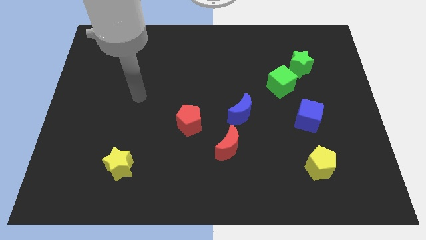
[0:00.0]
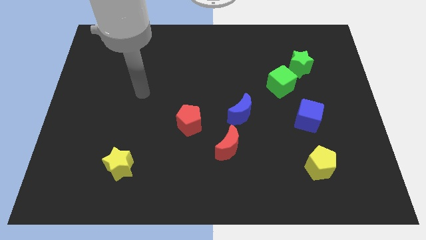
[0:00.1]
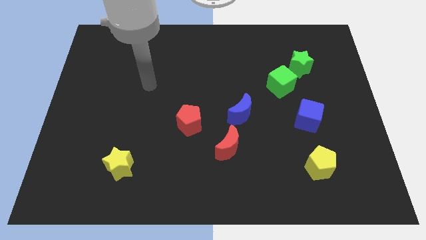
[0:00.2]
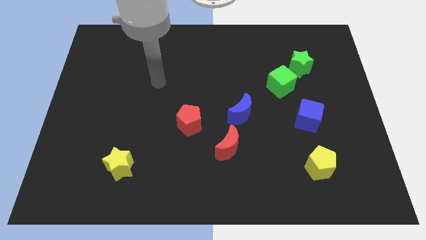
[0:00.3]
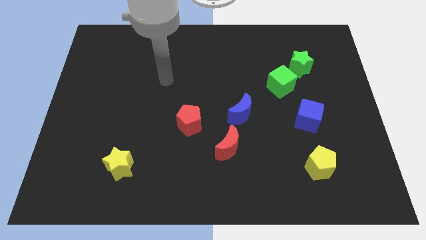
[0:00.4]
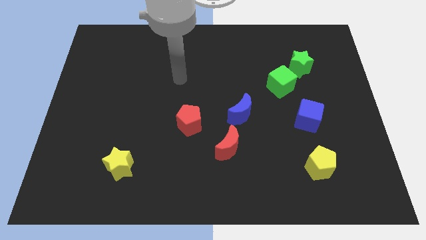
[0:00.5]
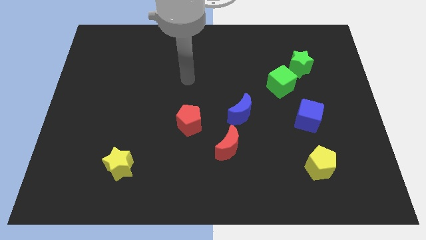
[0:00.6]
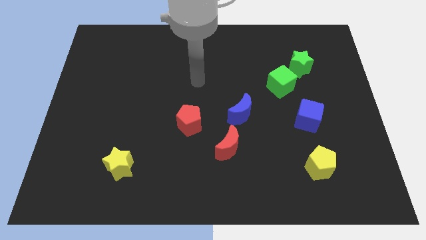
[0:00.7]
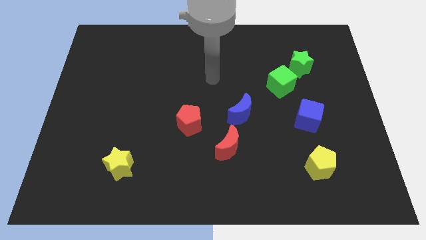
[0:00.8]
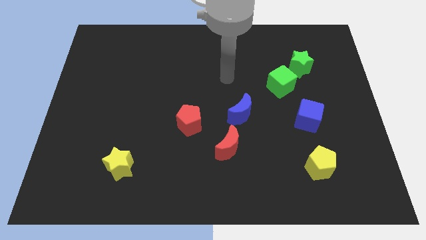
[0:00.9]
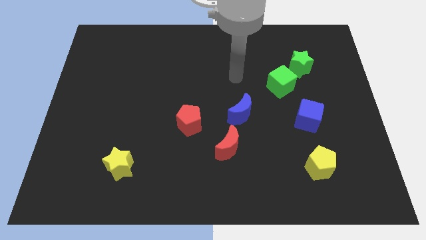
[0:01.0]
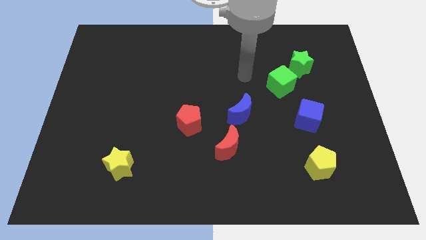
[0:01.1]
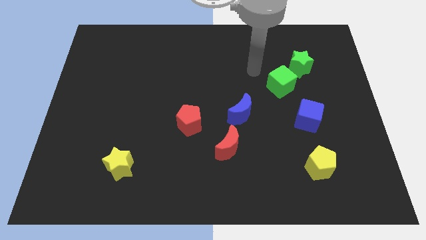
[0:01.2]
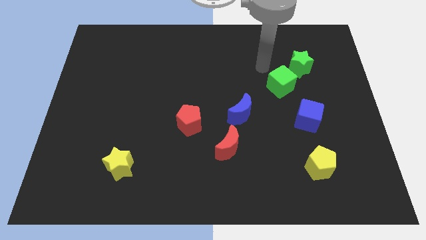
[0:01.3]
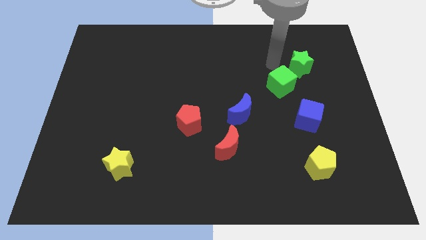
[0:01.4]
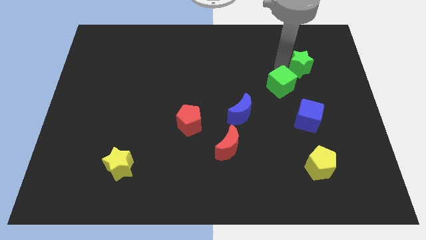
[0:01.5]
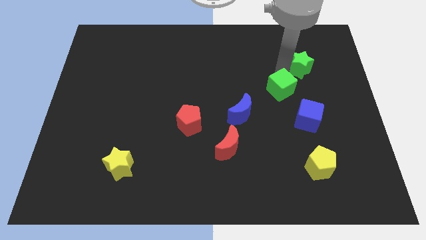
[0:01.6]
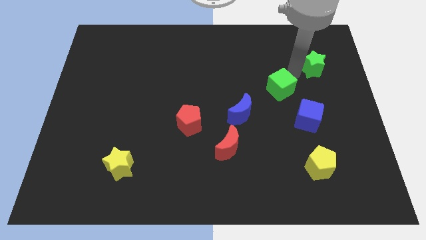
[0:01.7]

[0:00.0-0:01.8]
move the green cube away from the green star

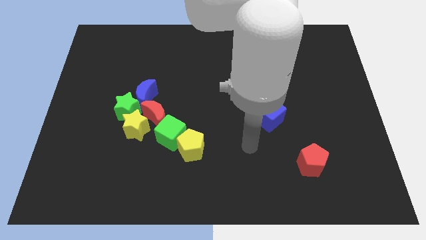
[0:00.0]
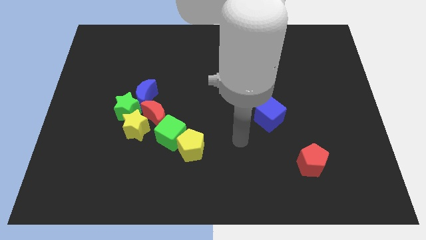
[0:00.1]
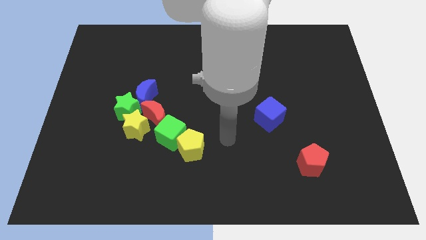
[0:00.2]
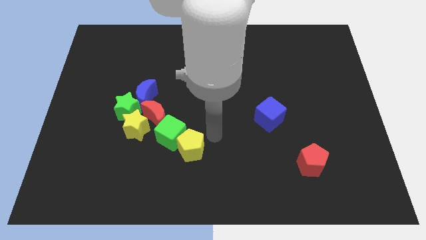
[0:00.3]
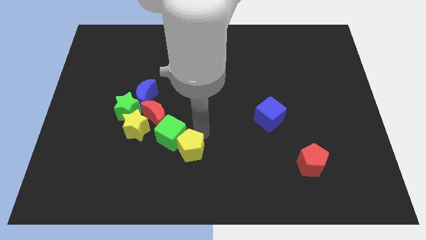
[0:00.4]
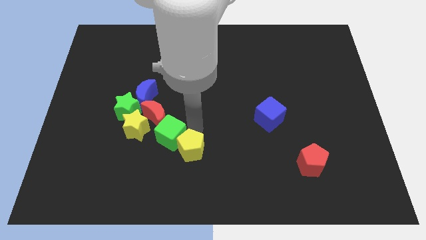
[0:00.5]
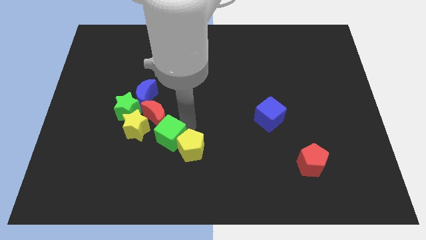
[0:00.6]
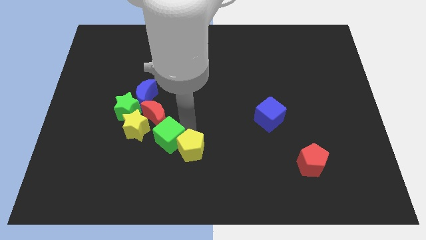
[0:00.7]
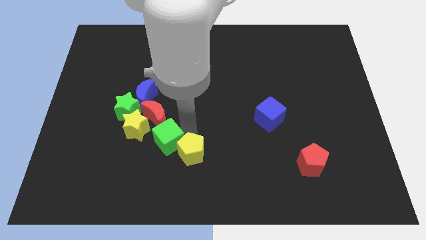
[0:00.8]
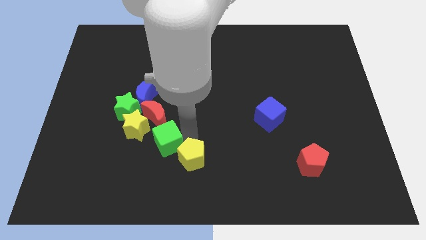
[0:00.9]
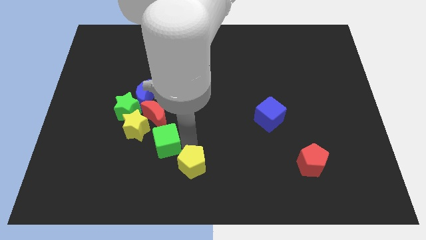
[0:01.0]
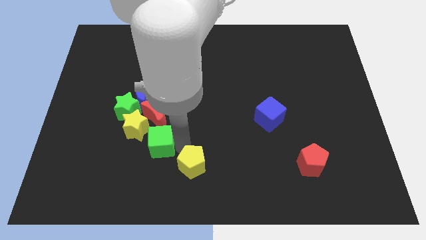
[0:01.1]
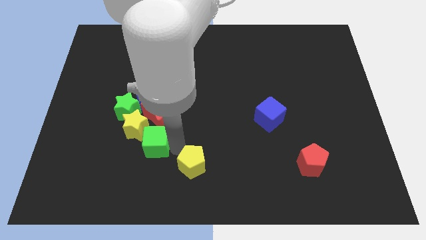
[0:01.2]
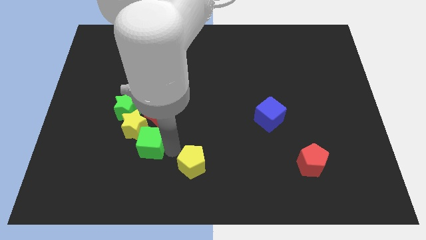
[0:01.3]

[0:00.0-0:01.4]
pull the yellow pentagon apart from the green cube

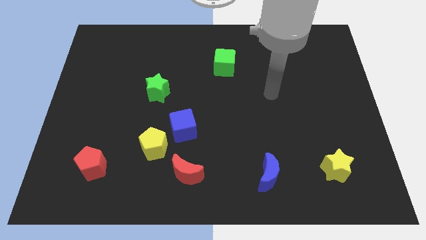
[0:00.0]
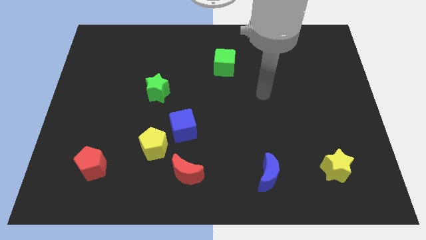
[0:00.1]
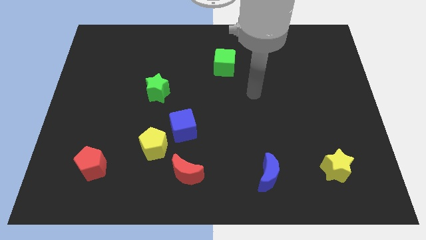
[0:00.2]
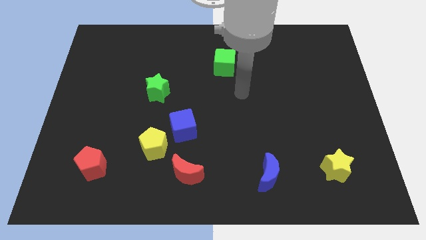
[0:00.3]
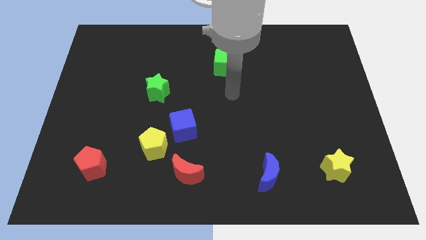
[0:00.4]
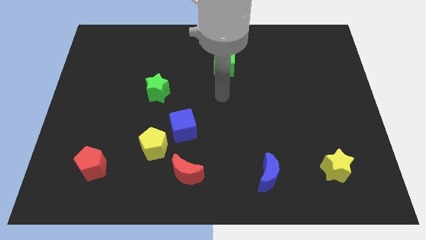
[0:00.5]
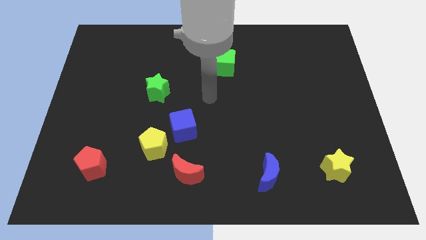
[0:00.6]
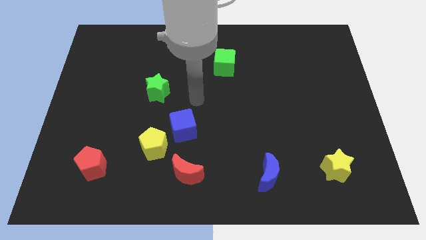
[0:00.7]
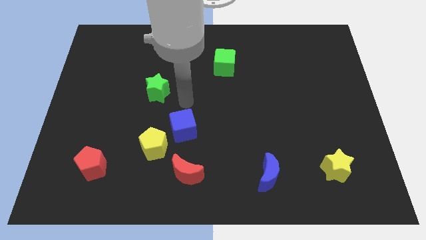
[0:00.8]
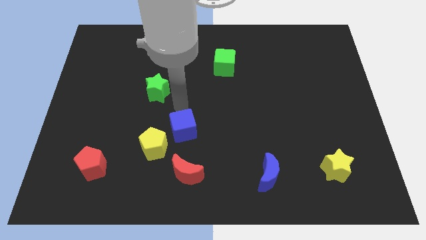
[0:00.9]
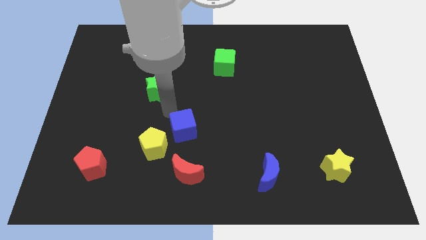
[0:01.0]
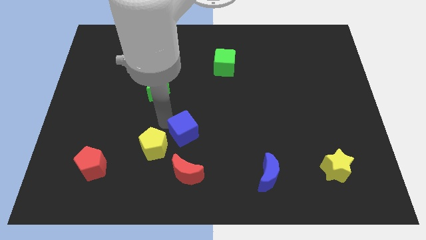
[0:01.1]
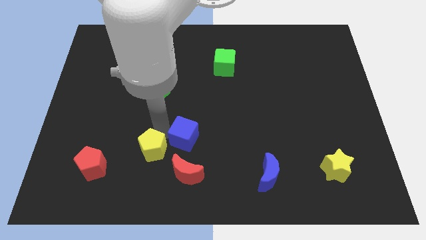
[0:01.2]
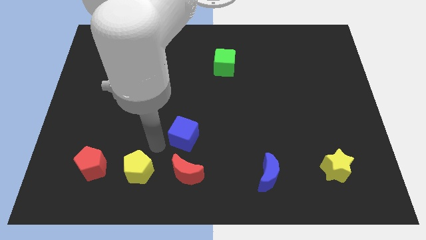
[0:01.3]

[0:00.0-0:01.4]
pull the blue cube apart from the yellow pentagon

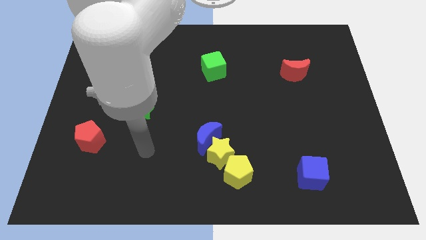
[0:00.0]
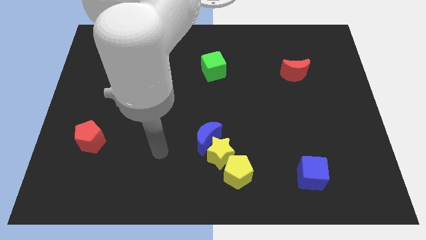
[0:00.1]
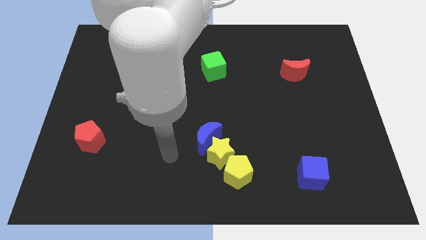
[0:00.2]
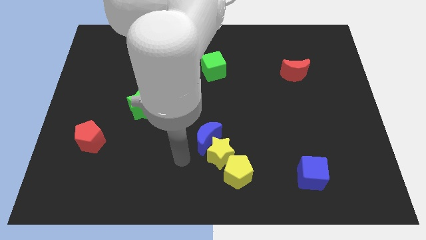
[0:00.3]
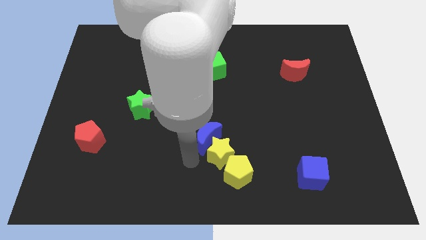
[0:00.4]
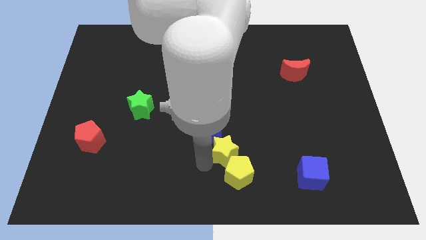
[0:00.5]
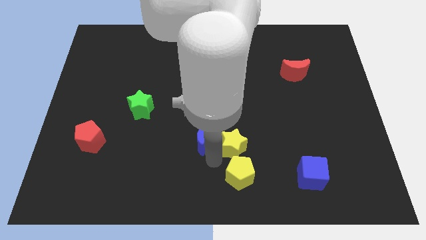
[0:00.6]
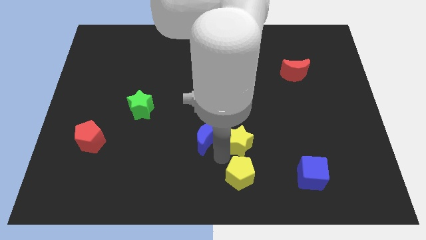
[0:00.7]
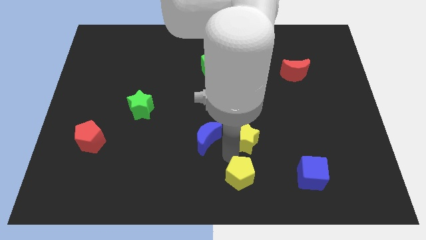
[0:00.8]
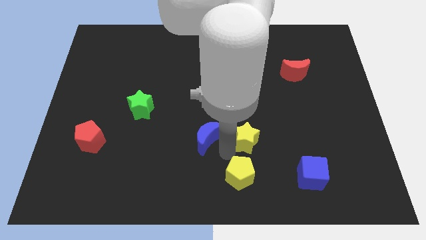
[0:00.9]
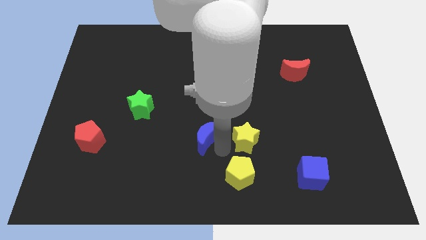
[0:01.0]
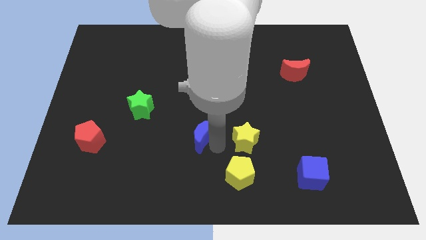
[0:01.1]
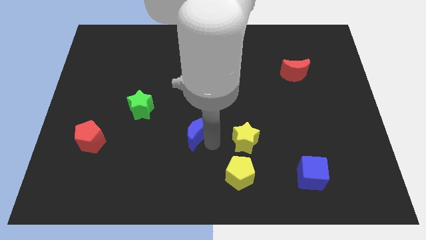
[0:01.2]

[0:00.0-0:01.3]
move the blue moon away from the yellow star

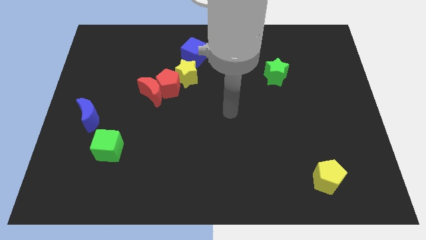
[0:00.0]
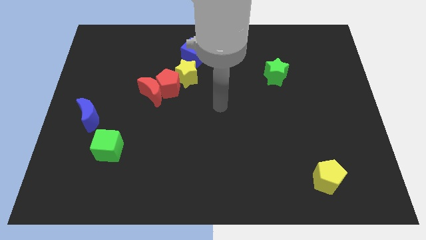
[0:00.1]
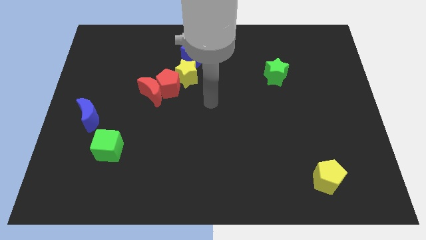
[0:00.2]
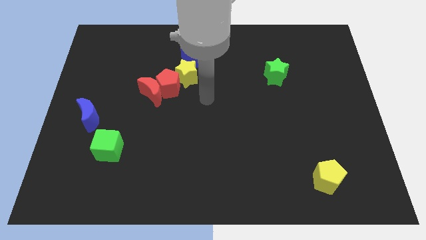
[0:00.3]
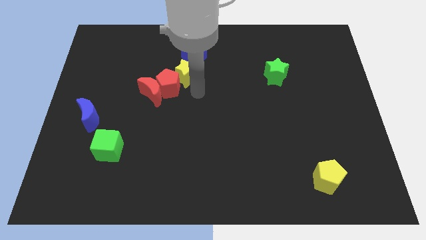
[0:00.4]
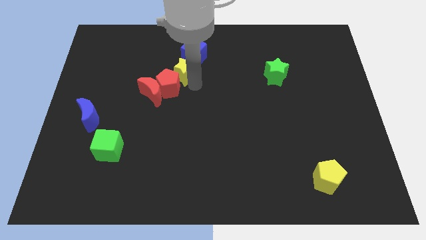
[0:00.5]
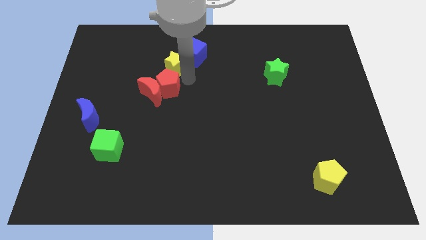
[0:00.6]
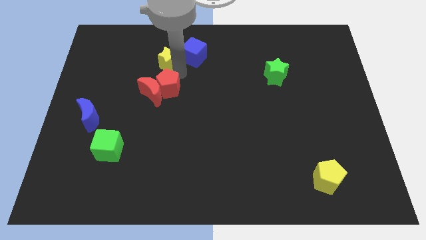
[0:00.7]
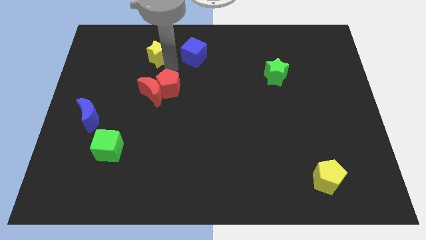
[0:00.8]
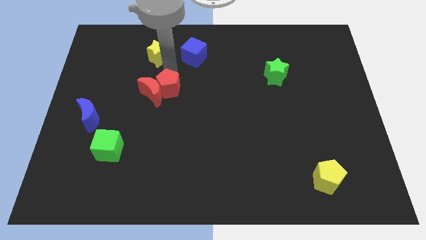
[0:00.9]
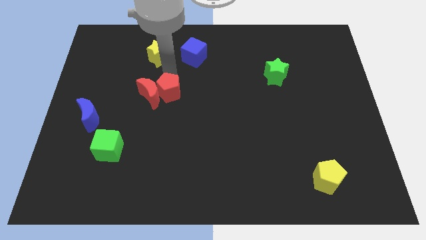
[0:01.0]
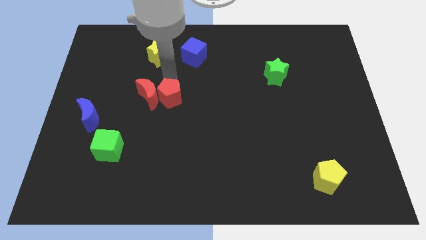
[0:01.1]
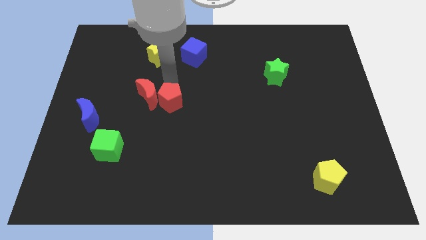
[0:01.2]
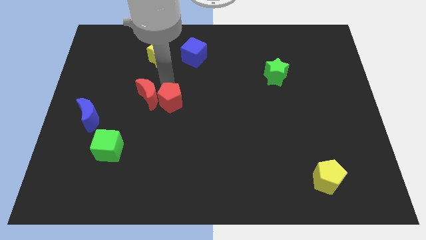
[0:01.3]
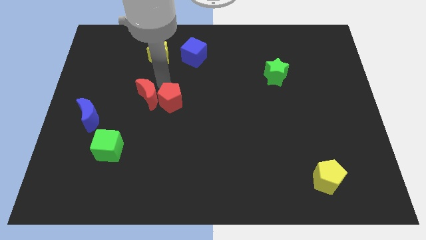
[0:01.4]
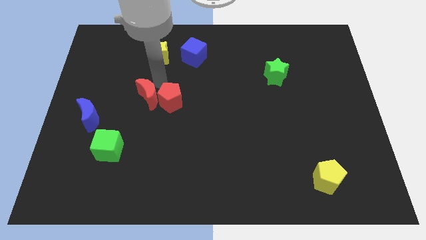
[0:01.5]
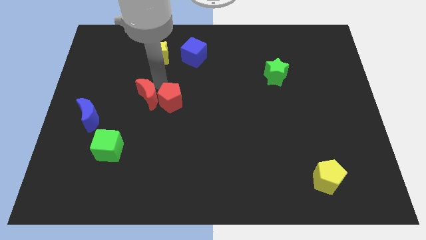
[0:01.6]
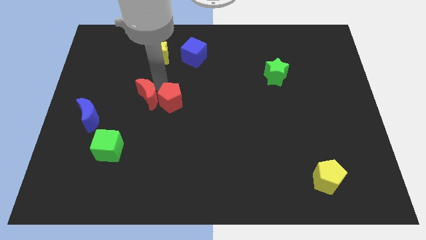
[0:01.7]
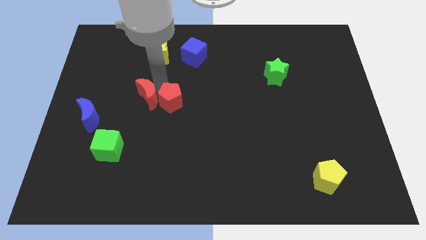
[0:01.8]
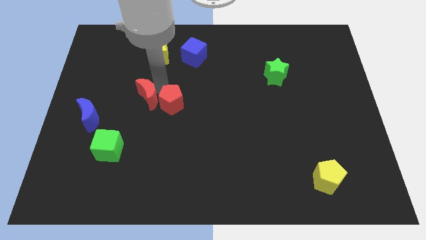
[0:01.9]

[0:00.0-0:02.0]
separate the red pentagon from the red moon and yellow star

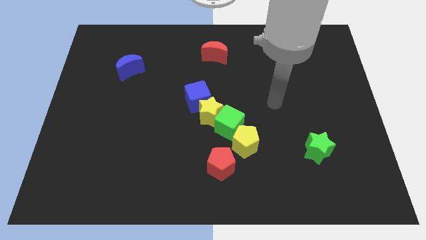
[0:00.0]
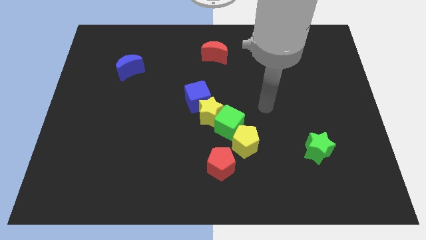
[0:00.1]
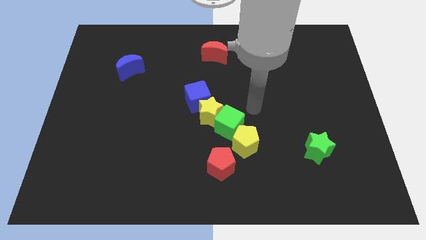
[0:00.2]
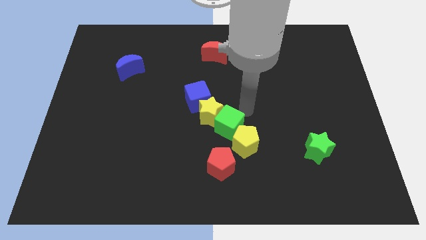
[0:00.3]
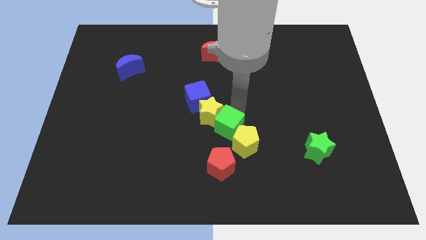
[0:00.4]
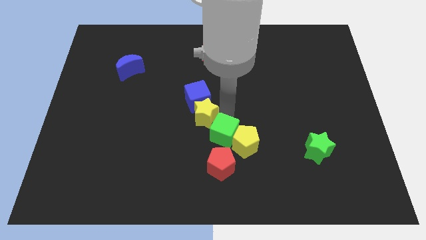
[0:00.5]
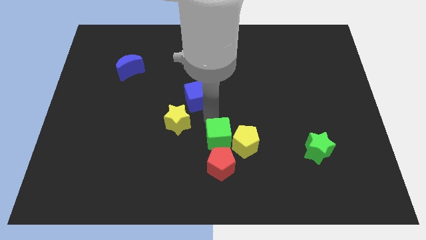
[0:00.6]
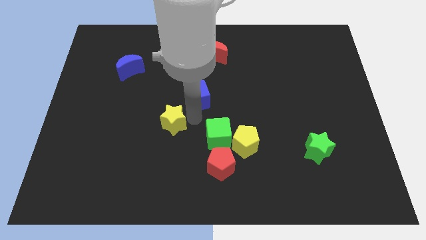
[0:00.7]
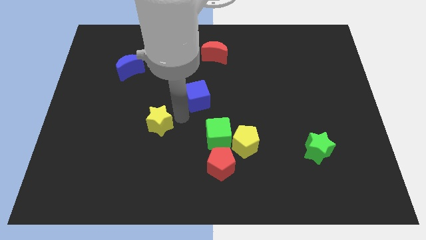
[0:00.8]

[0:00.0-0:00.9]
separate the blue cube from the yellow star

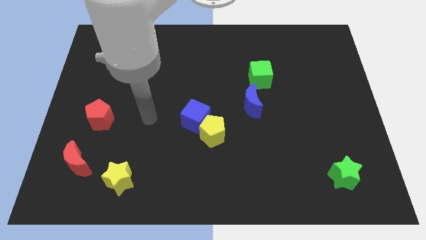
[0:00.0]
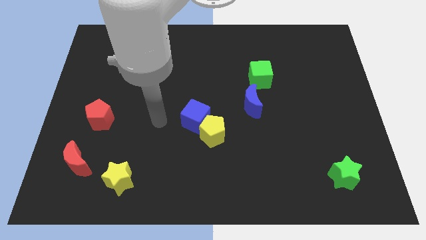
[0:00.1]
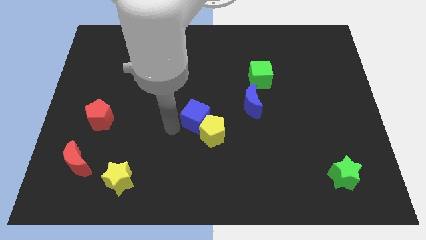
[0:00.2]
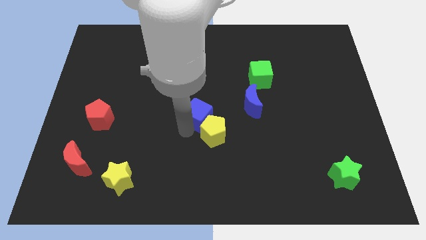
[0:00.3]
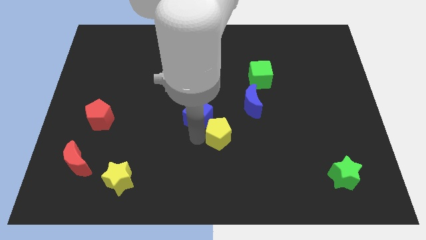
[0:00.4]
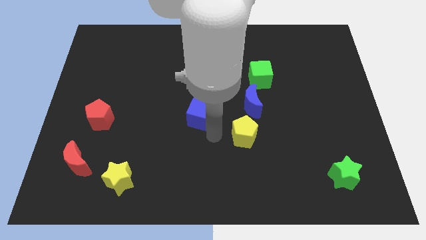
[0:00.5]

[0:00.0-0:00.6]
separate the blue cube from the yellow pentagon
